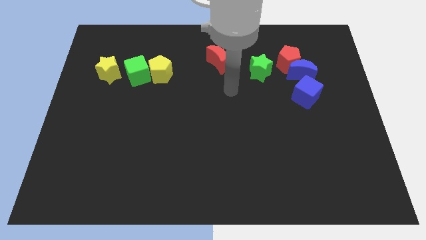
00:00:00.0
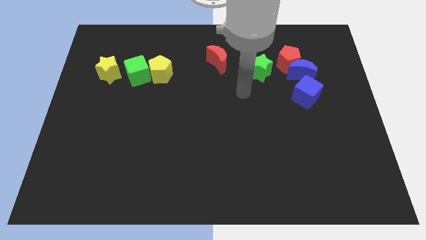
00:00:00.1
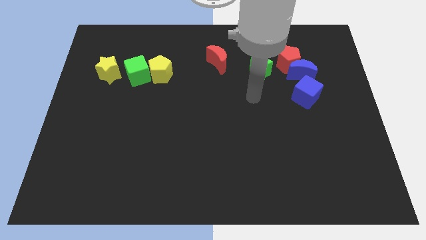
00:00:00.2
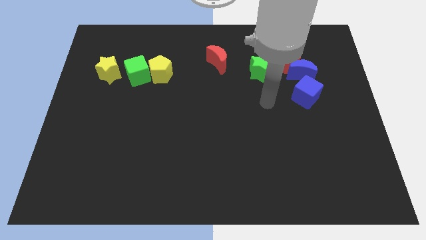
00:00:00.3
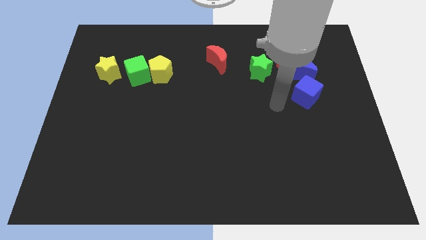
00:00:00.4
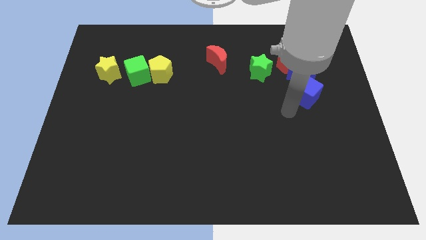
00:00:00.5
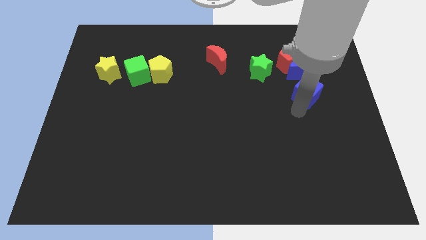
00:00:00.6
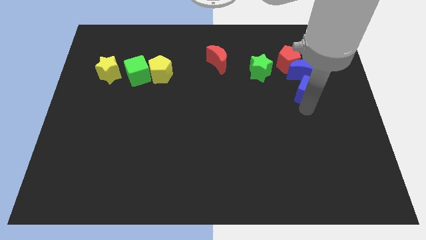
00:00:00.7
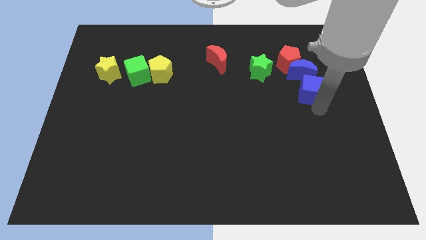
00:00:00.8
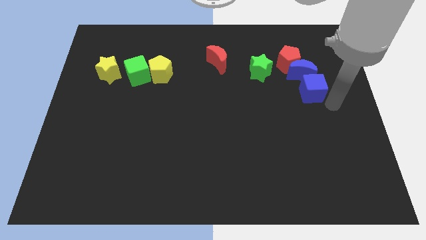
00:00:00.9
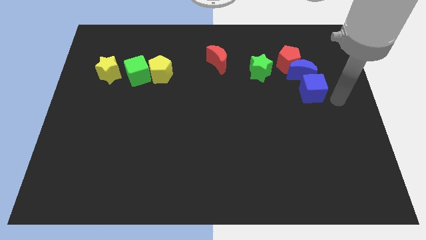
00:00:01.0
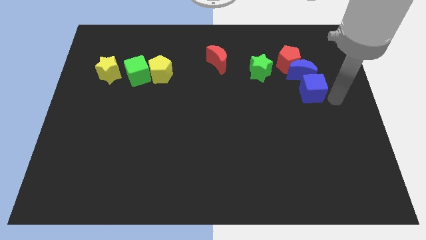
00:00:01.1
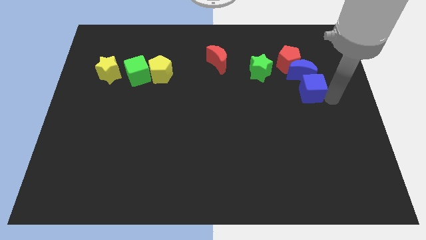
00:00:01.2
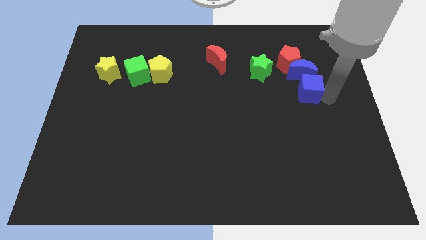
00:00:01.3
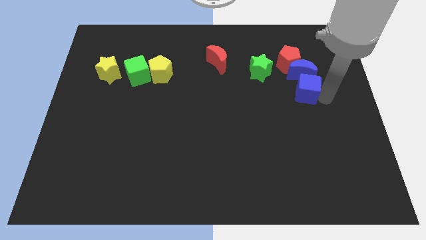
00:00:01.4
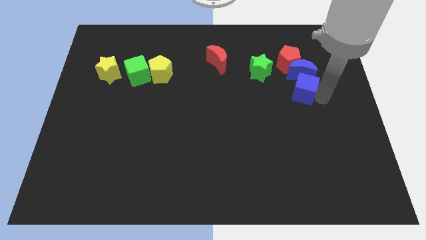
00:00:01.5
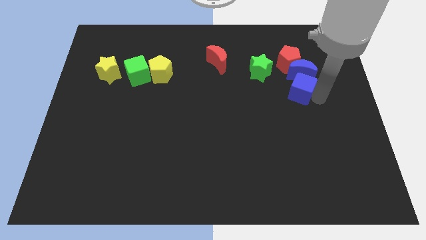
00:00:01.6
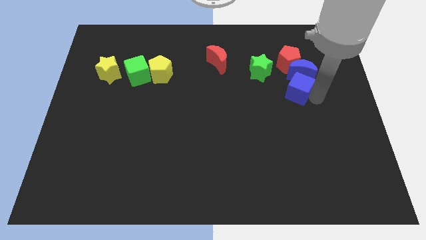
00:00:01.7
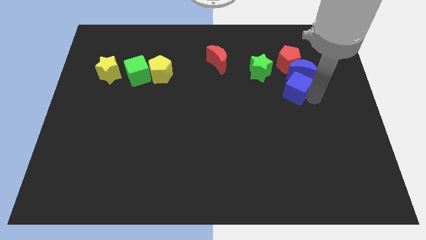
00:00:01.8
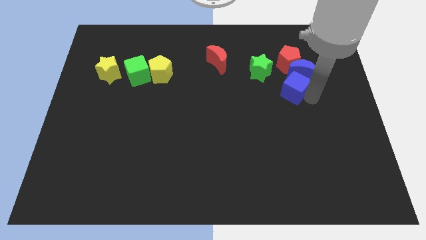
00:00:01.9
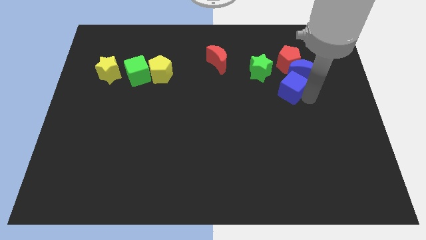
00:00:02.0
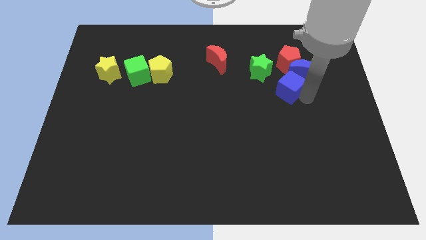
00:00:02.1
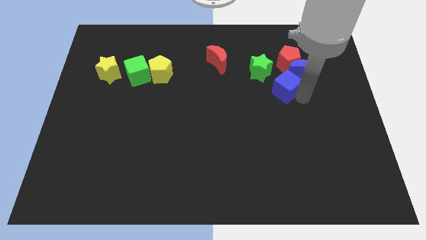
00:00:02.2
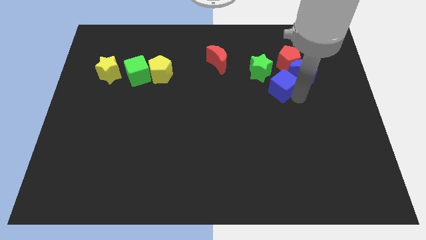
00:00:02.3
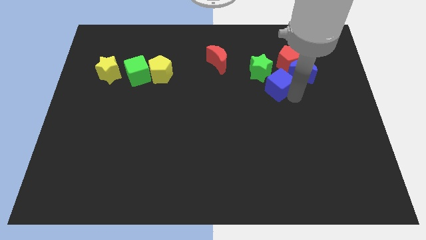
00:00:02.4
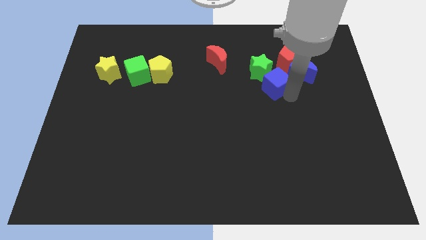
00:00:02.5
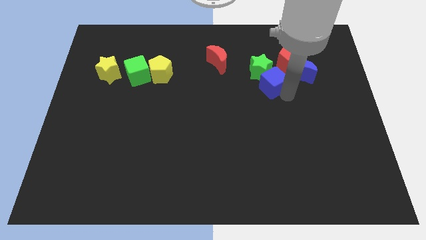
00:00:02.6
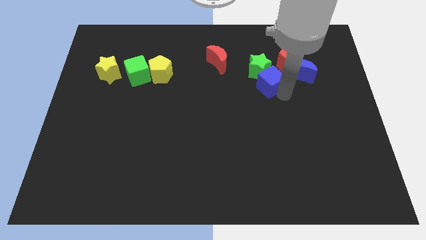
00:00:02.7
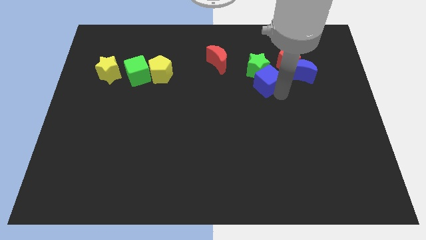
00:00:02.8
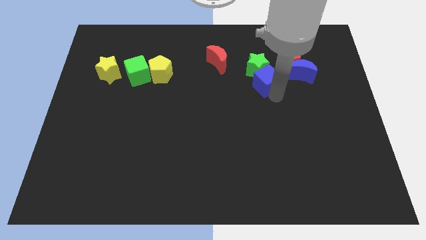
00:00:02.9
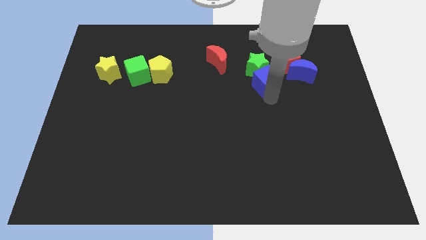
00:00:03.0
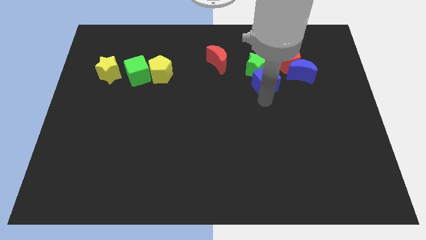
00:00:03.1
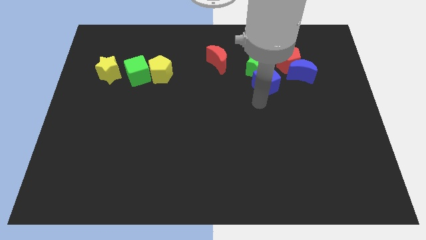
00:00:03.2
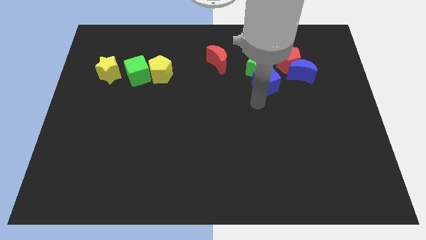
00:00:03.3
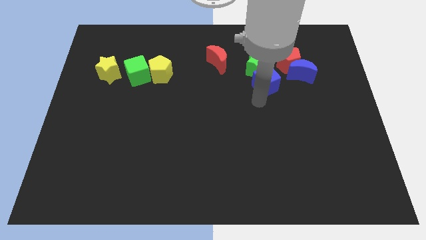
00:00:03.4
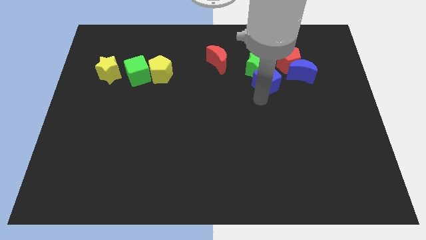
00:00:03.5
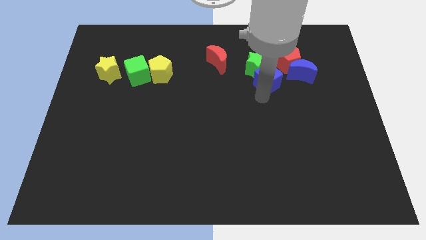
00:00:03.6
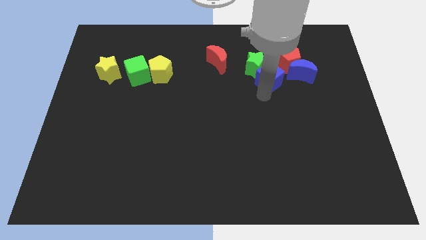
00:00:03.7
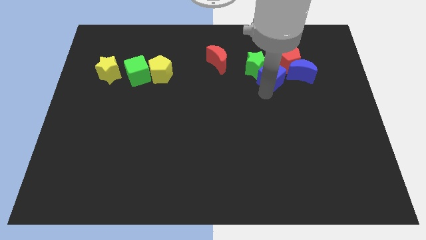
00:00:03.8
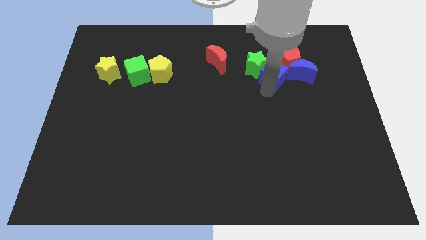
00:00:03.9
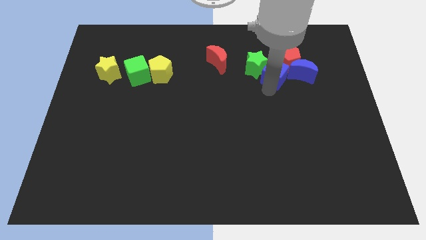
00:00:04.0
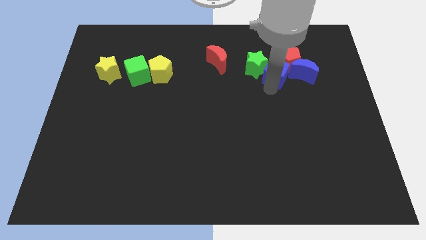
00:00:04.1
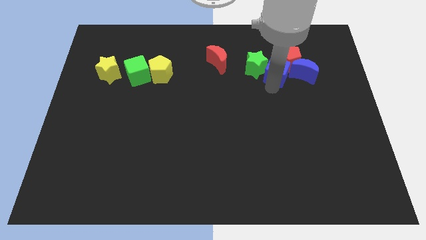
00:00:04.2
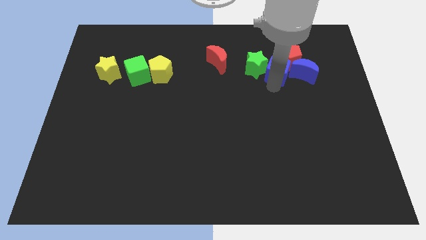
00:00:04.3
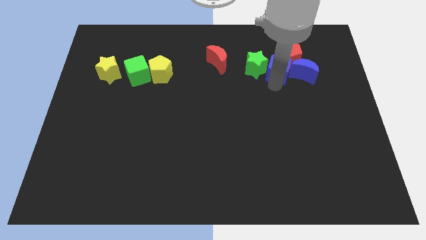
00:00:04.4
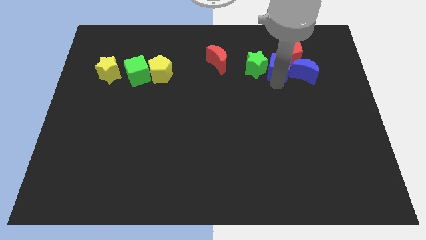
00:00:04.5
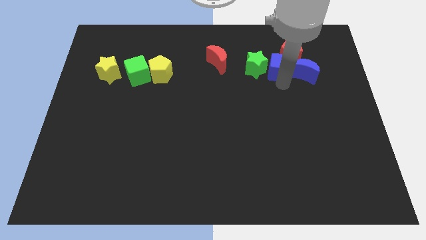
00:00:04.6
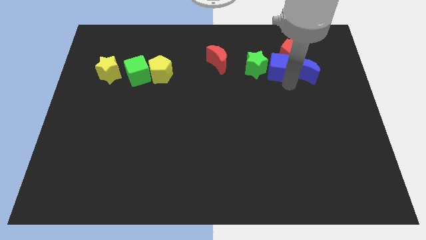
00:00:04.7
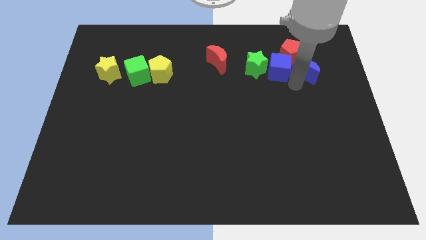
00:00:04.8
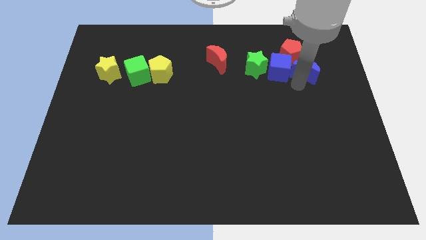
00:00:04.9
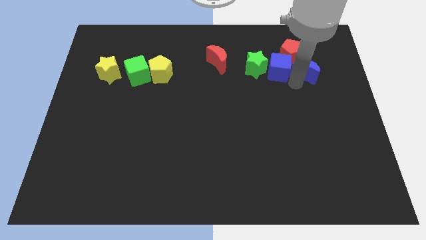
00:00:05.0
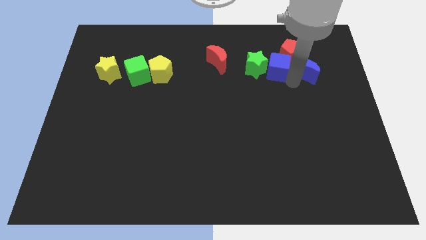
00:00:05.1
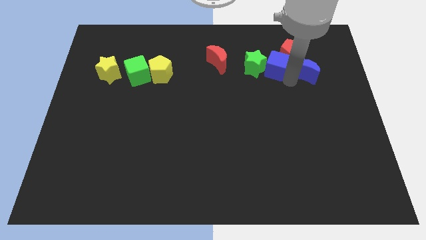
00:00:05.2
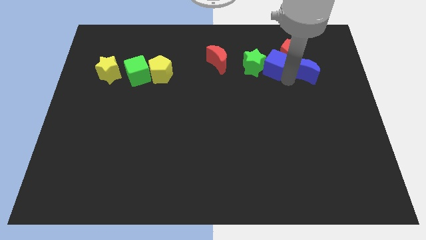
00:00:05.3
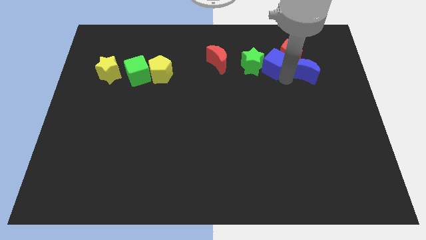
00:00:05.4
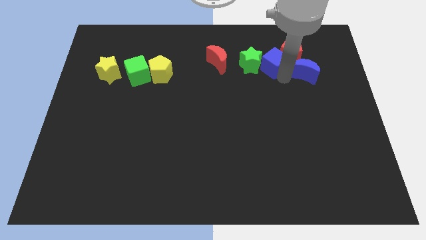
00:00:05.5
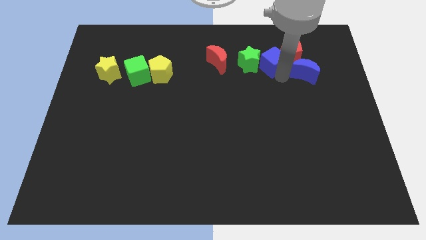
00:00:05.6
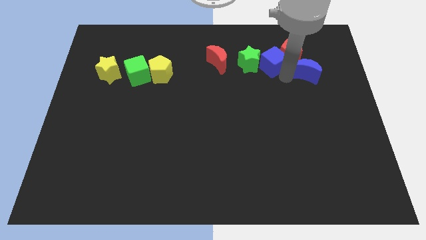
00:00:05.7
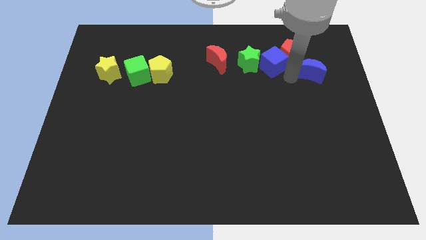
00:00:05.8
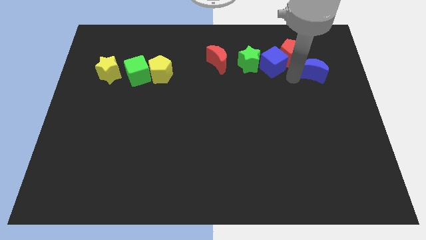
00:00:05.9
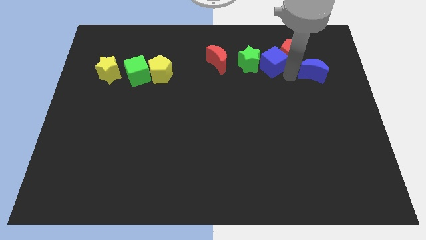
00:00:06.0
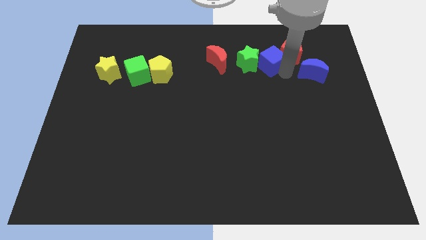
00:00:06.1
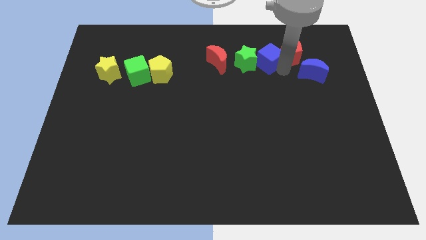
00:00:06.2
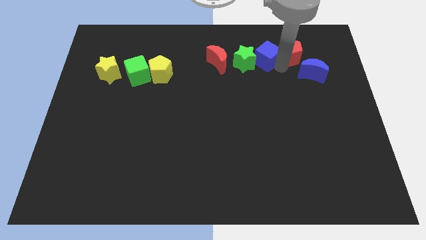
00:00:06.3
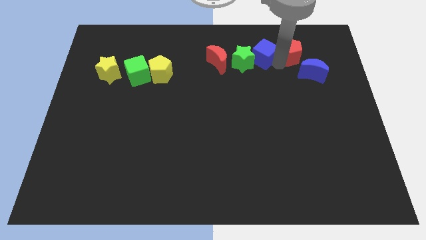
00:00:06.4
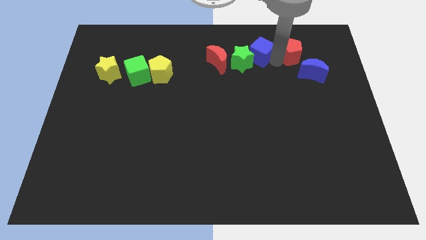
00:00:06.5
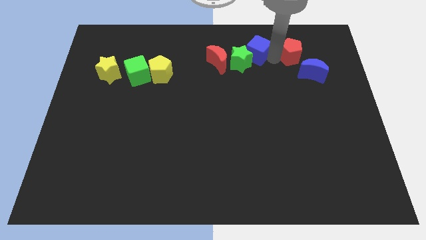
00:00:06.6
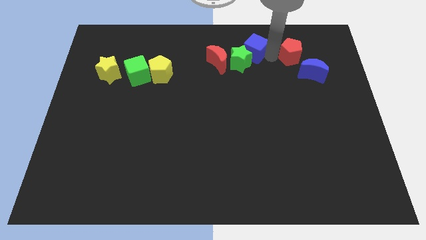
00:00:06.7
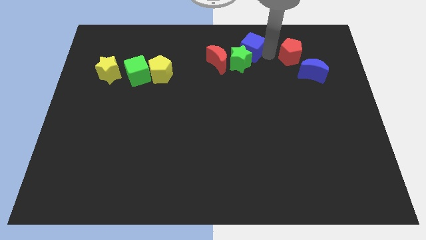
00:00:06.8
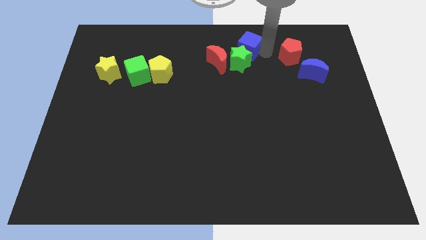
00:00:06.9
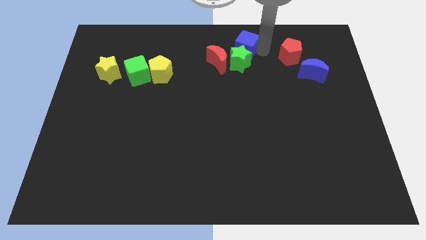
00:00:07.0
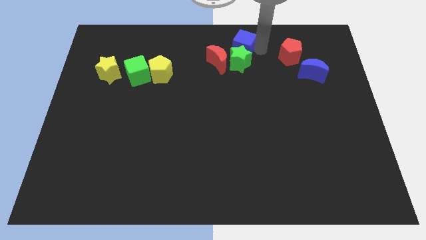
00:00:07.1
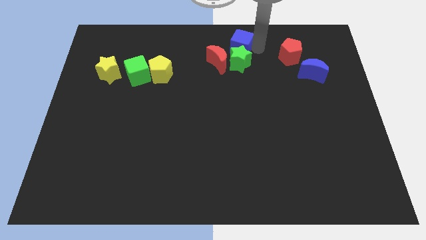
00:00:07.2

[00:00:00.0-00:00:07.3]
put the blue cube diagonally up and to the left of the green star

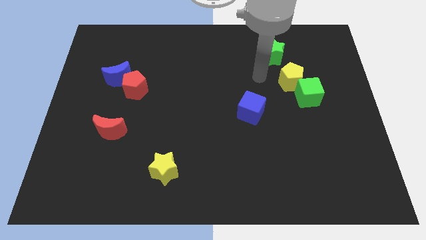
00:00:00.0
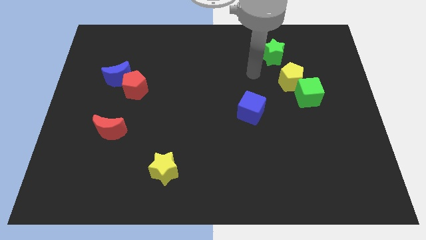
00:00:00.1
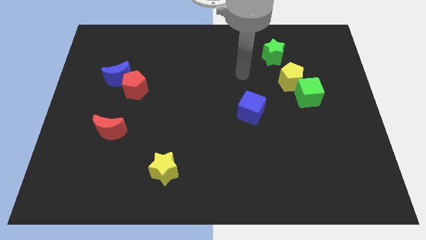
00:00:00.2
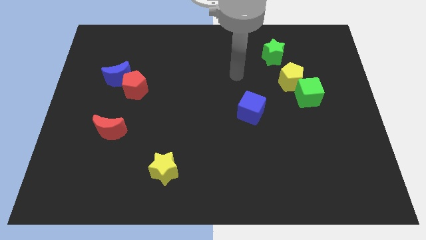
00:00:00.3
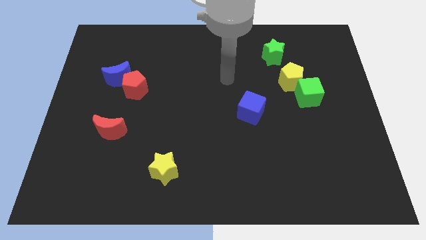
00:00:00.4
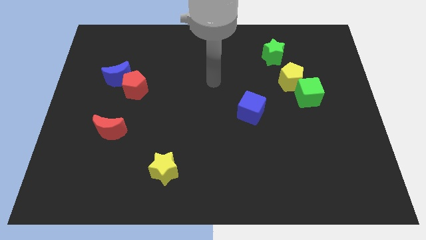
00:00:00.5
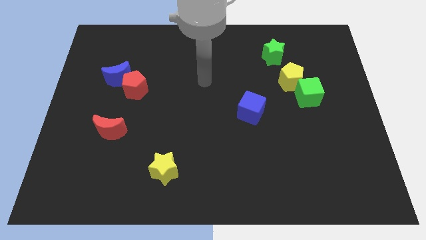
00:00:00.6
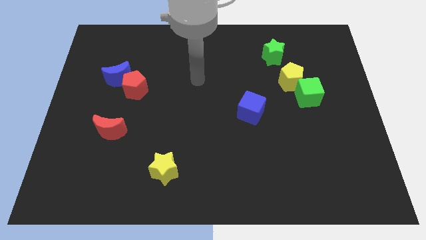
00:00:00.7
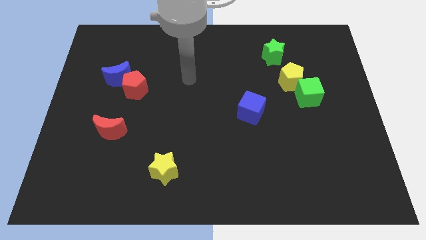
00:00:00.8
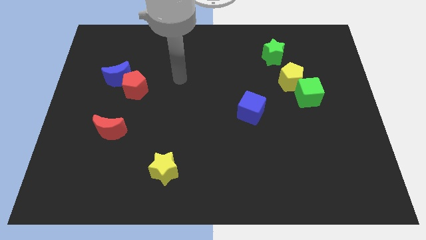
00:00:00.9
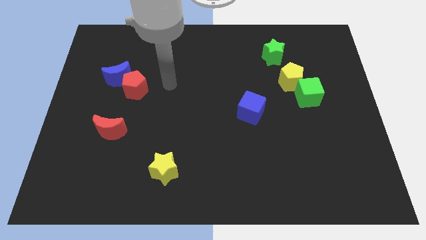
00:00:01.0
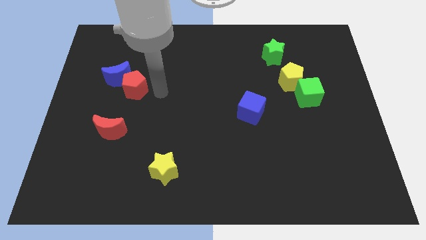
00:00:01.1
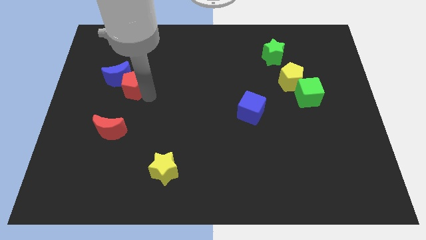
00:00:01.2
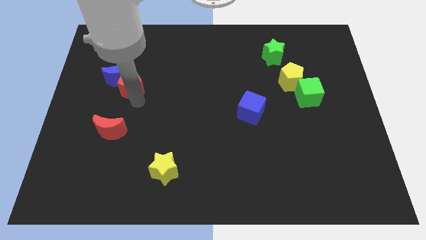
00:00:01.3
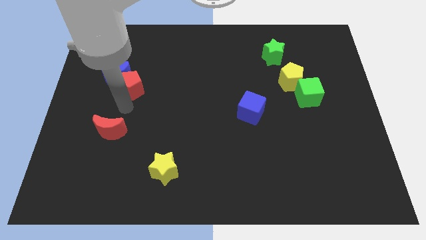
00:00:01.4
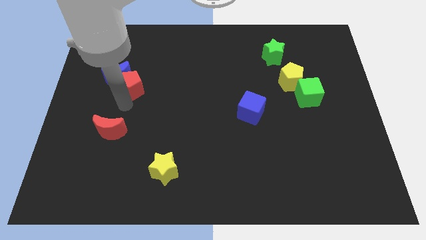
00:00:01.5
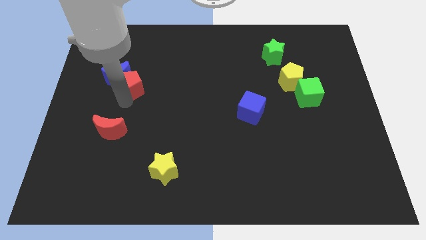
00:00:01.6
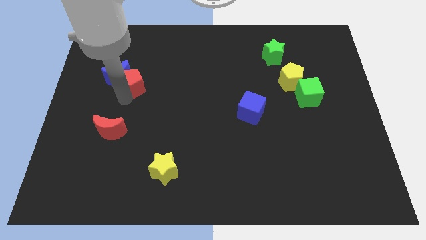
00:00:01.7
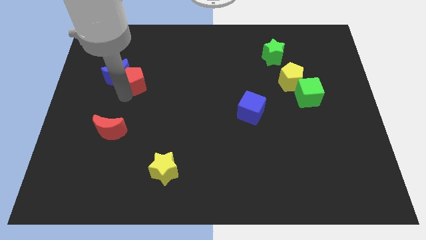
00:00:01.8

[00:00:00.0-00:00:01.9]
push the red pentagon diagonally up and to the right of the blue moon
